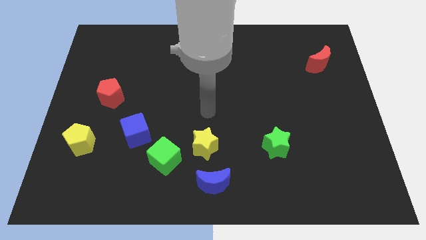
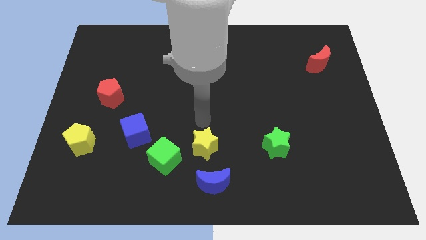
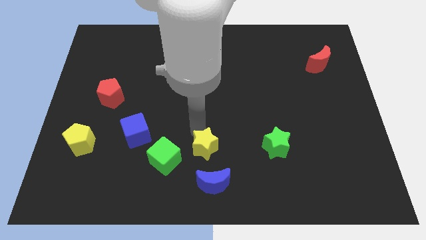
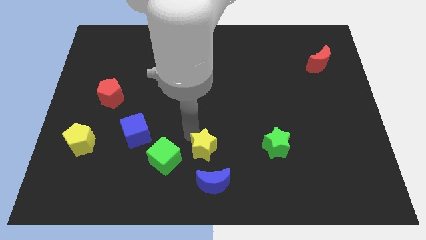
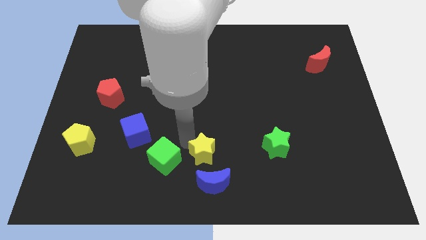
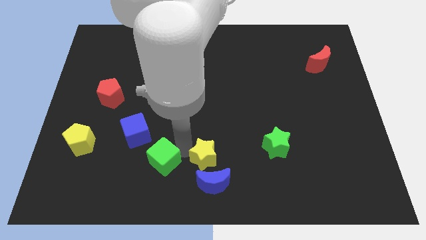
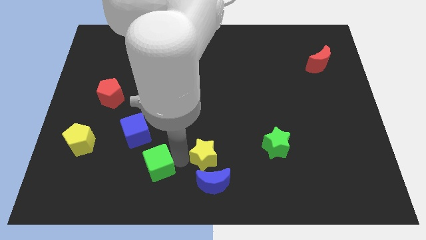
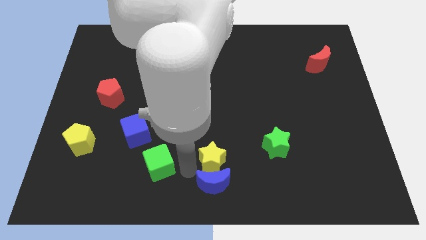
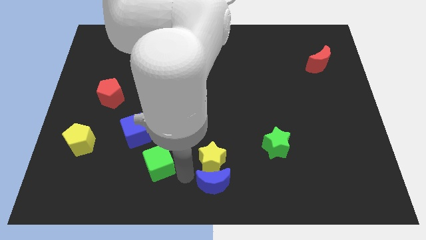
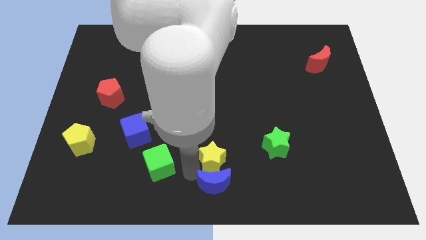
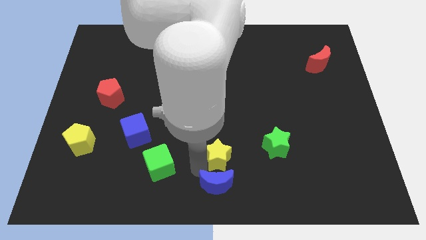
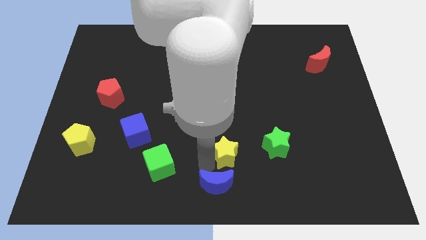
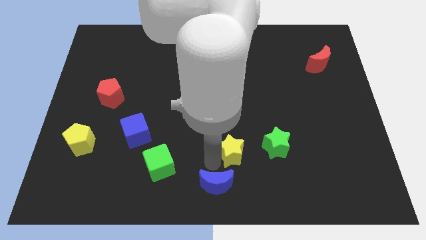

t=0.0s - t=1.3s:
pull the yellow star apart from the green cube and blue moon

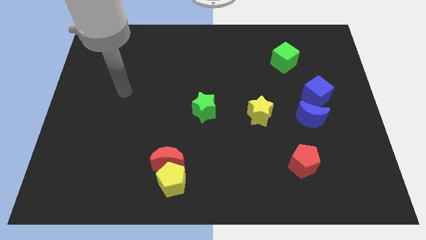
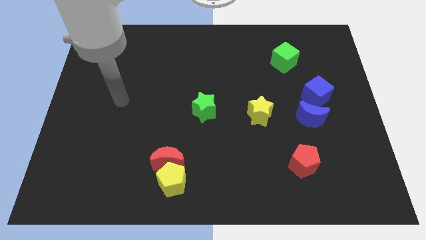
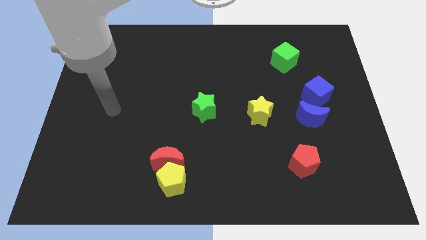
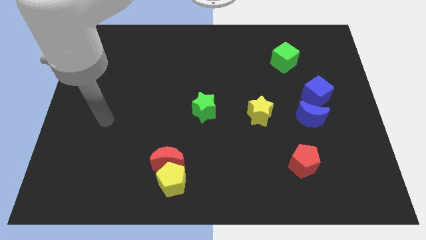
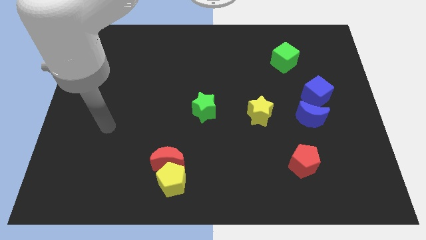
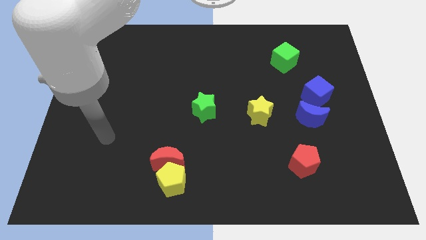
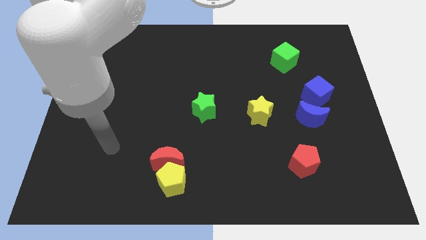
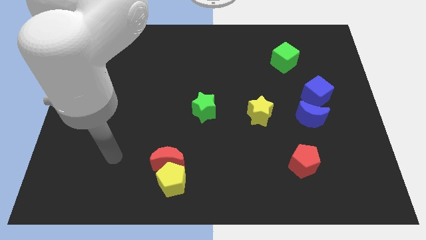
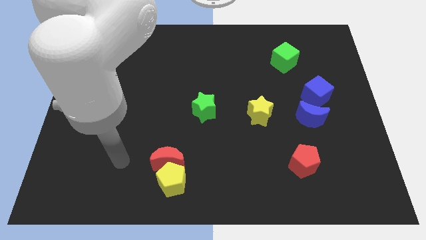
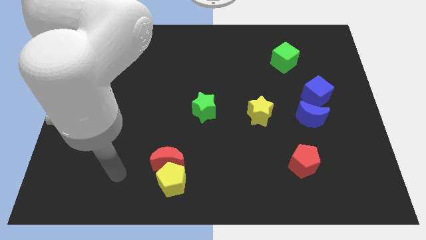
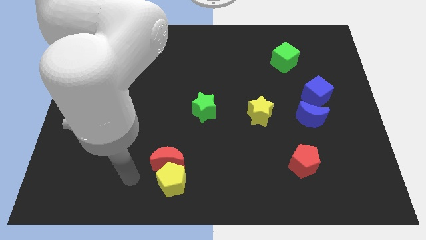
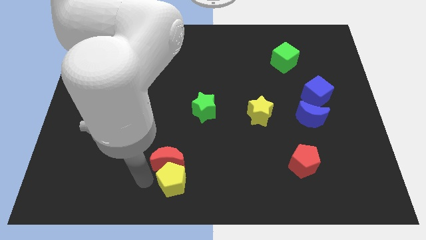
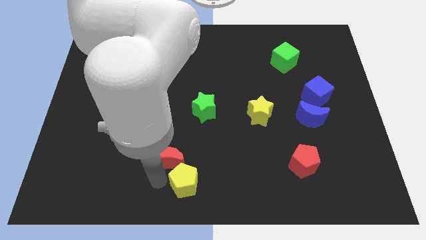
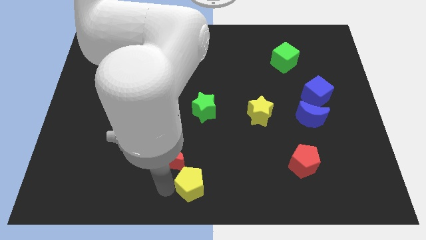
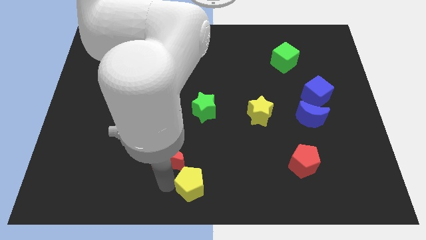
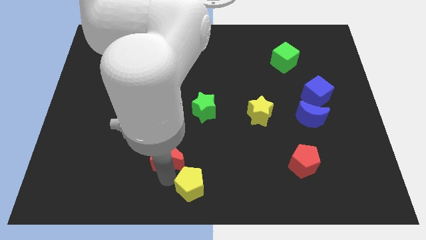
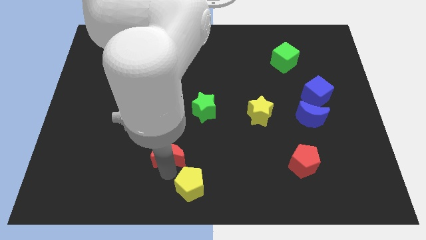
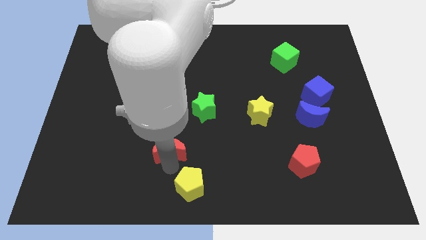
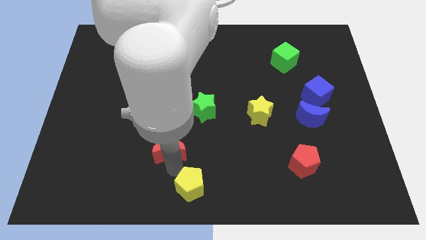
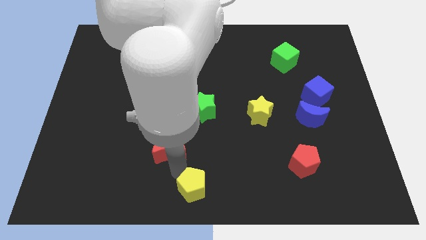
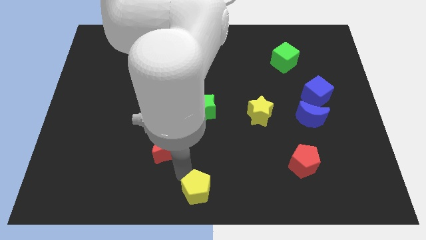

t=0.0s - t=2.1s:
move the red moon away from the yellow pentagon

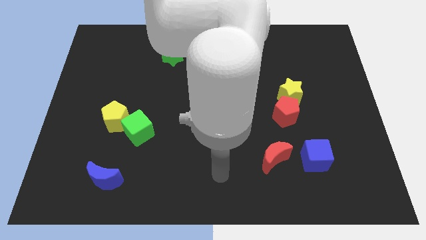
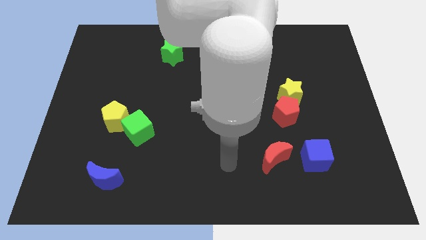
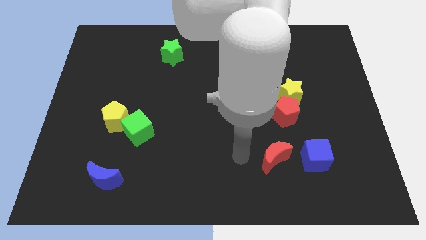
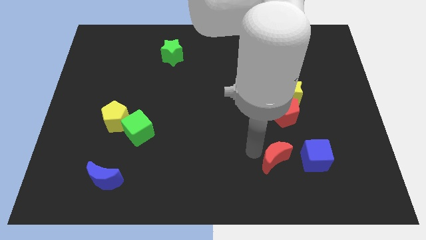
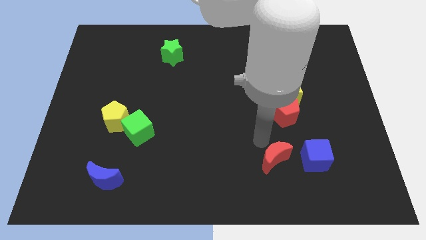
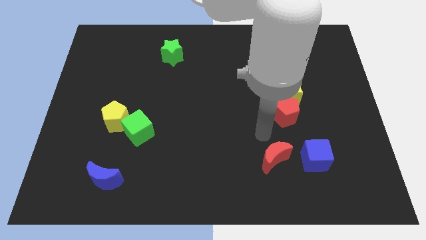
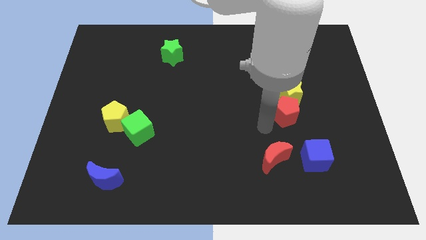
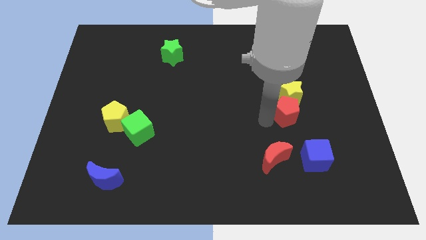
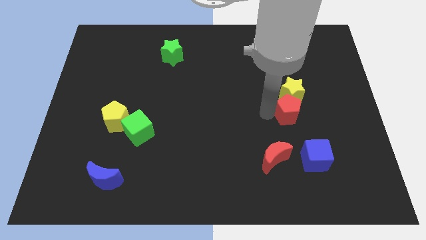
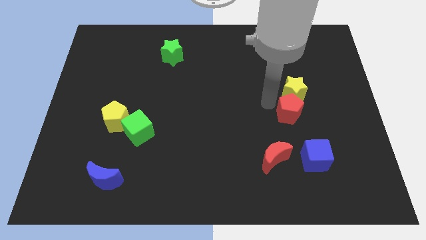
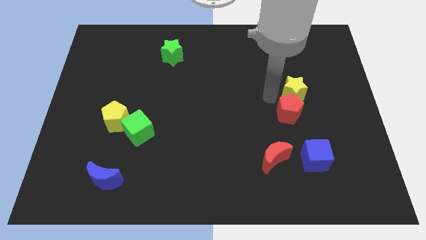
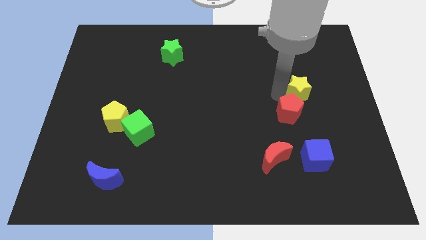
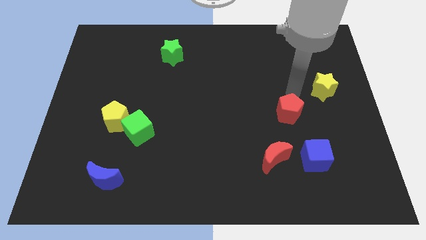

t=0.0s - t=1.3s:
separate the red pentagon from the yellow star

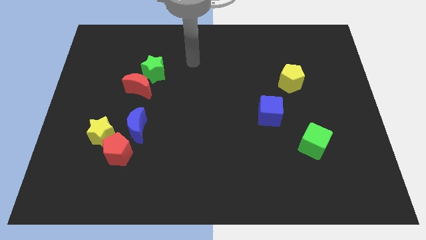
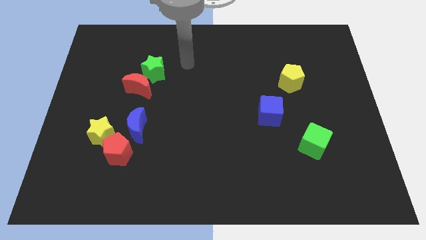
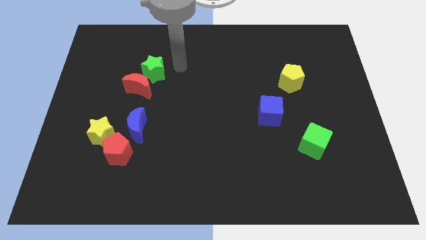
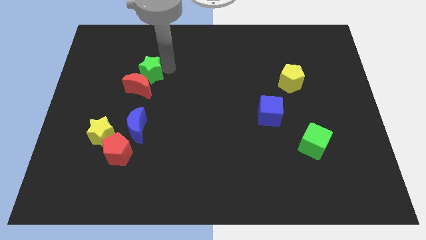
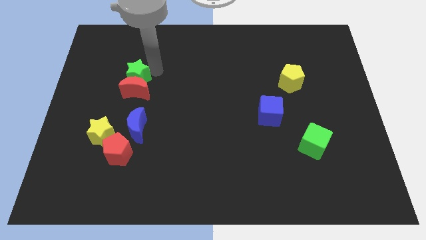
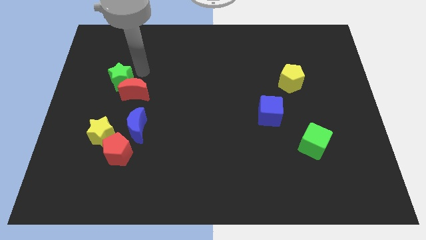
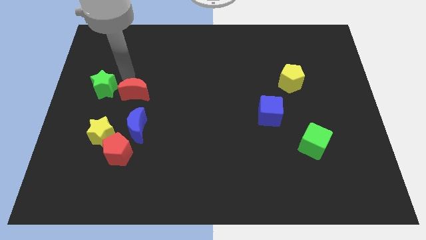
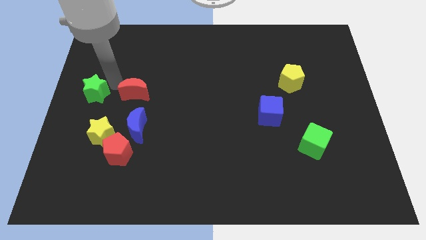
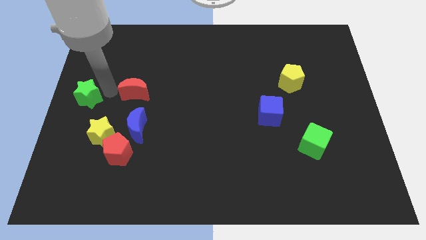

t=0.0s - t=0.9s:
move the red moon away from the green star

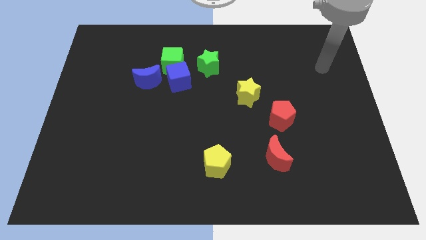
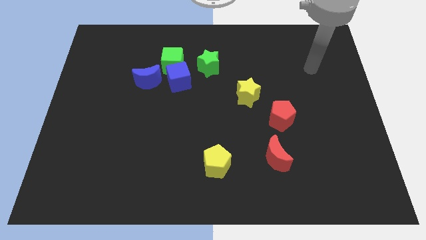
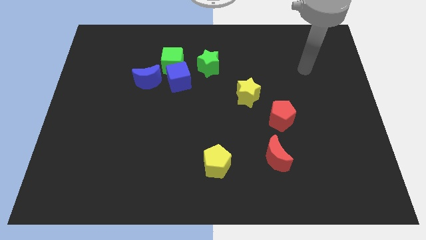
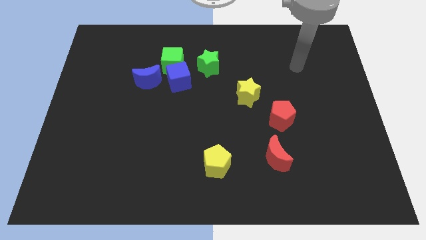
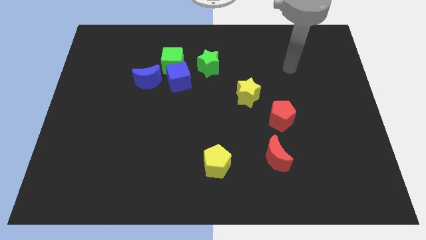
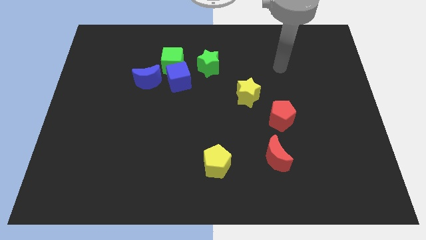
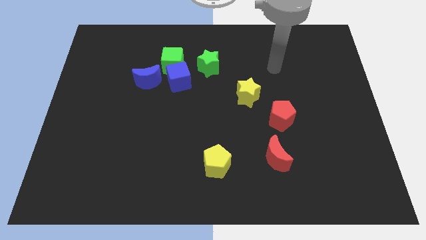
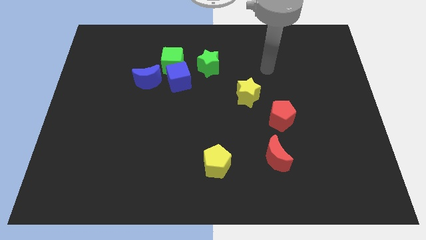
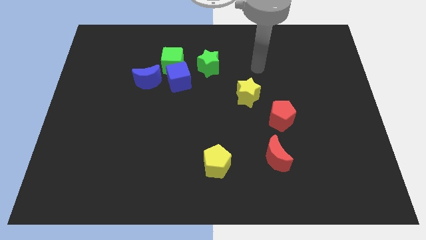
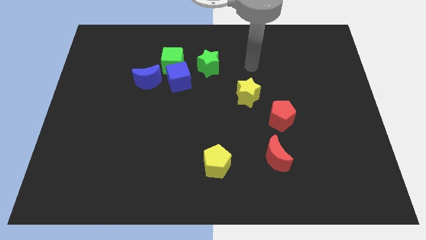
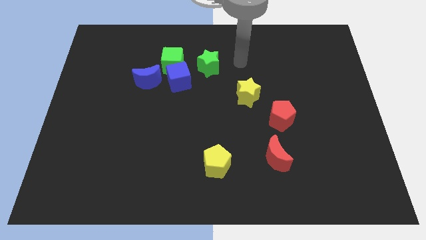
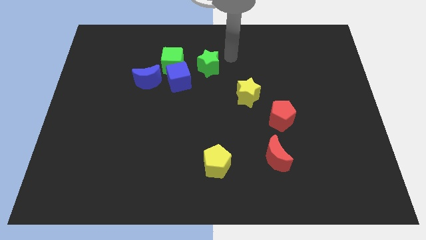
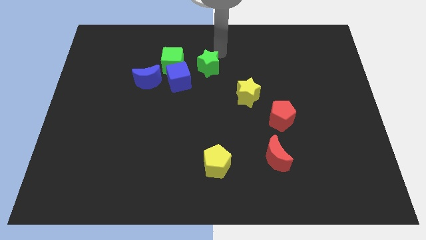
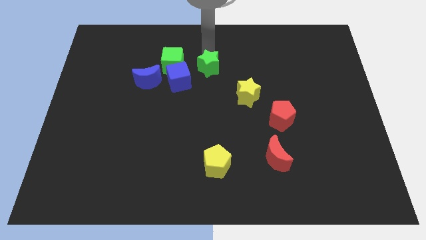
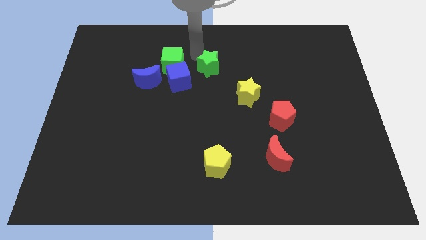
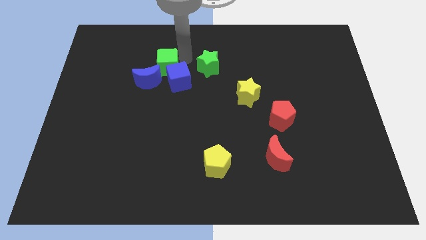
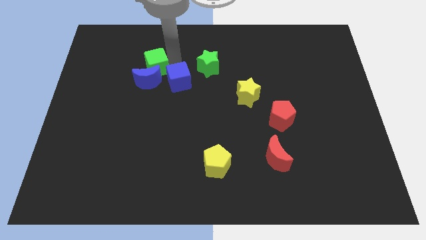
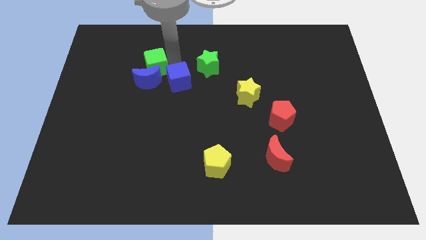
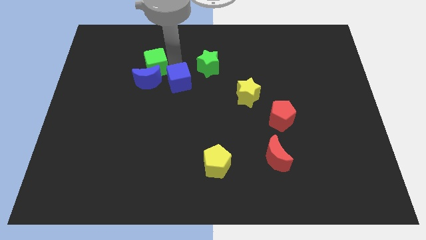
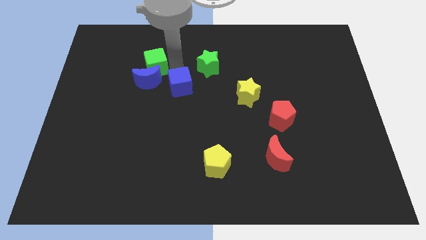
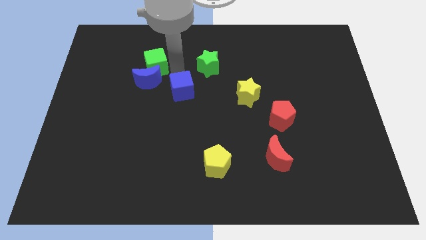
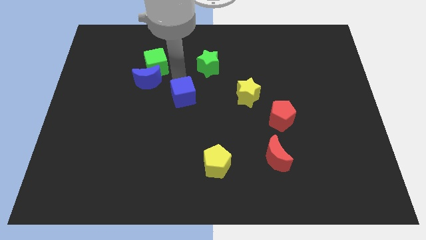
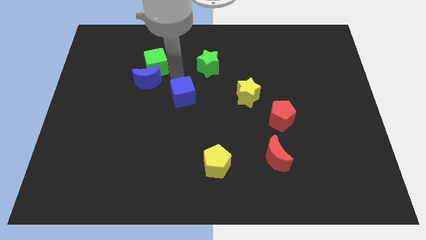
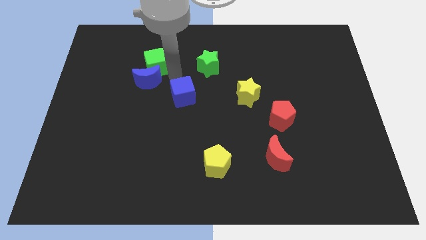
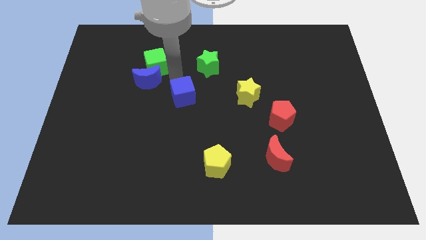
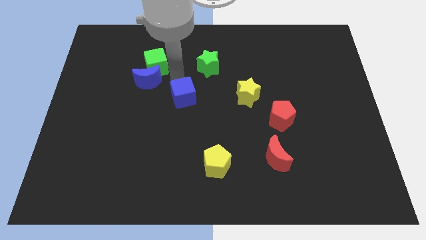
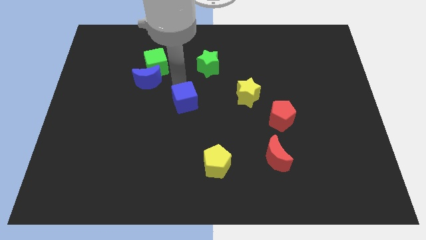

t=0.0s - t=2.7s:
move the blue cube away from the group of blocks

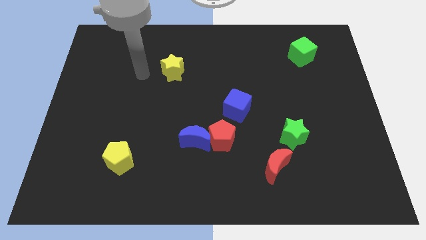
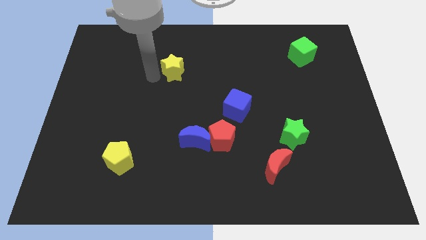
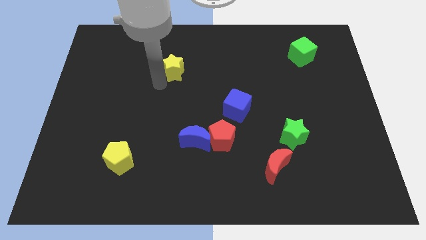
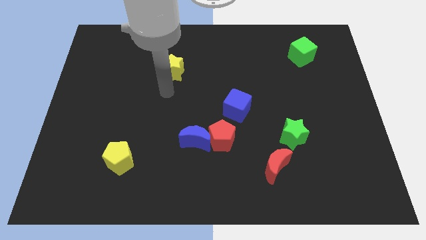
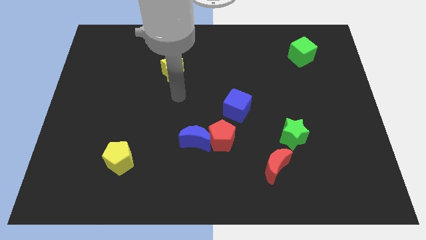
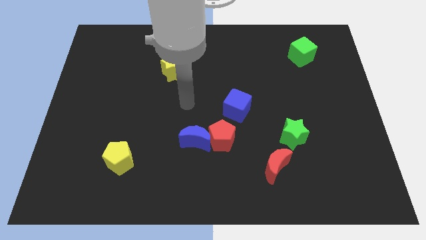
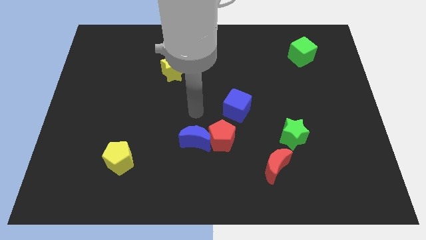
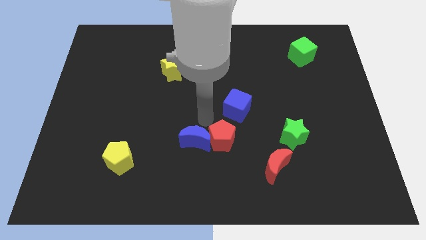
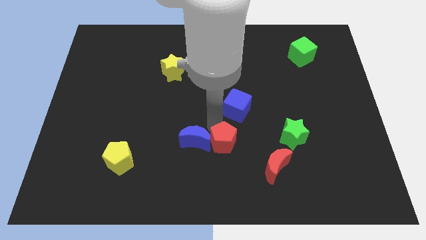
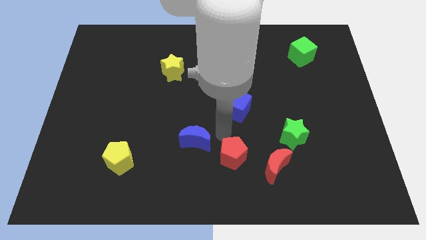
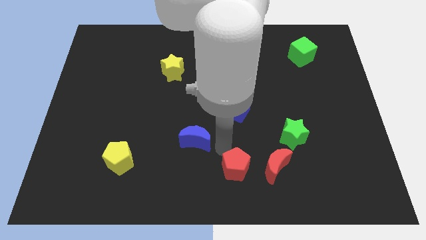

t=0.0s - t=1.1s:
separate the blue moon from the red pentagon
